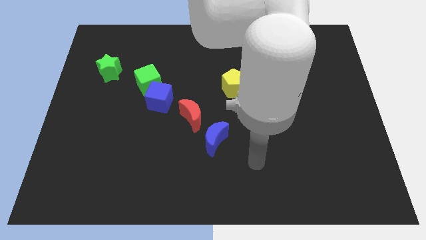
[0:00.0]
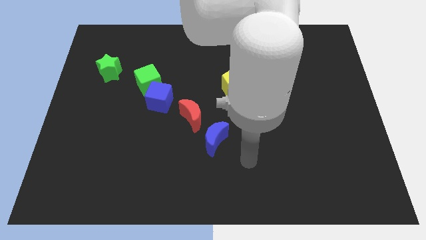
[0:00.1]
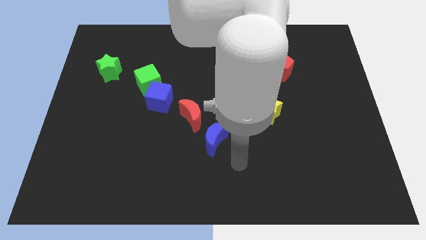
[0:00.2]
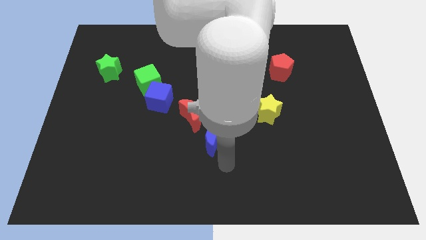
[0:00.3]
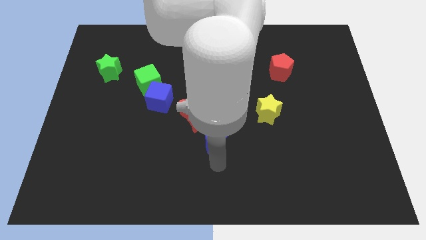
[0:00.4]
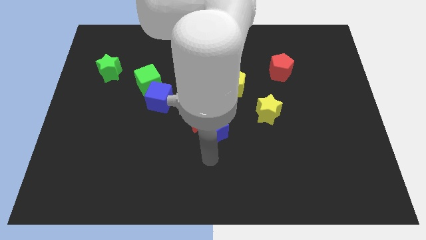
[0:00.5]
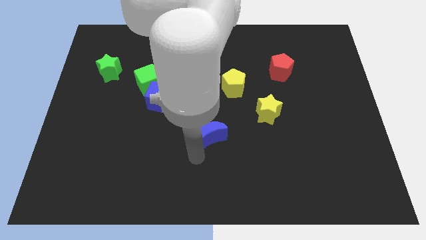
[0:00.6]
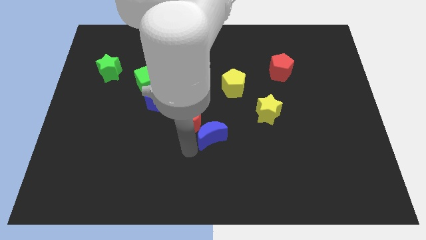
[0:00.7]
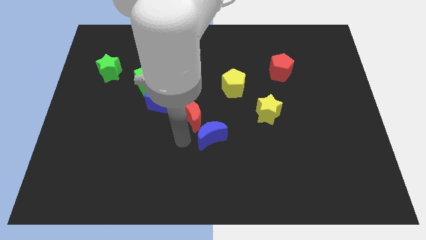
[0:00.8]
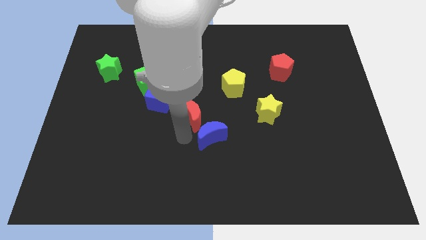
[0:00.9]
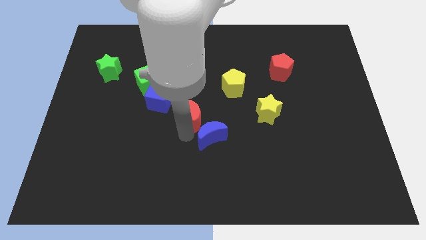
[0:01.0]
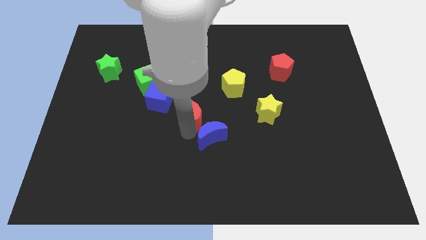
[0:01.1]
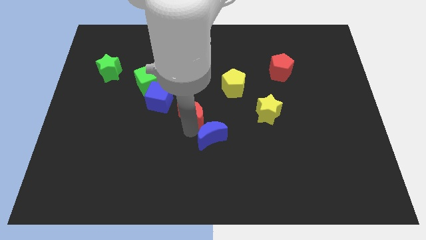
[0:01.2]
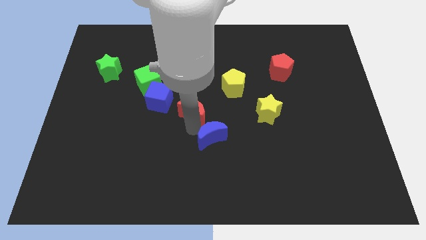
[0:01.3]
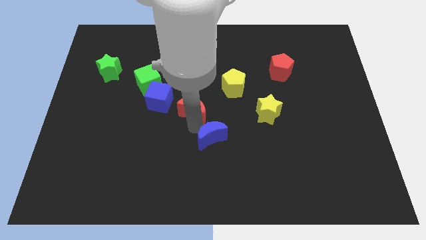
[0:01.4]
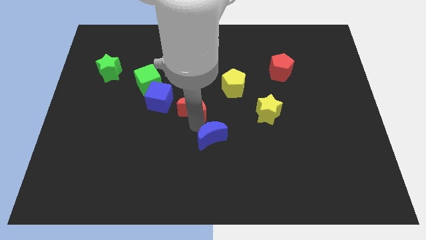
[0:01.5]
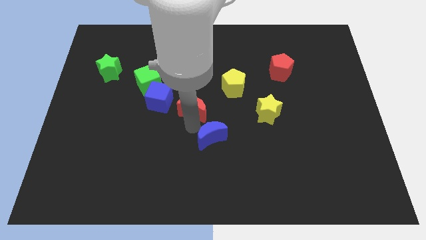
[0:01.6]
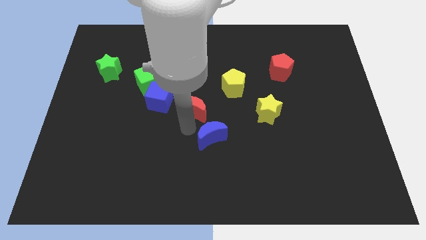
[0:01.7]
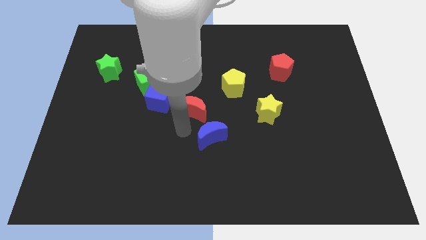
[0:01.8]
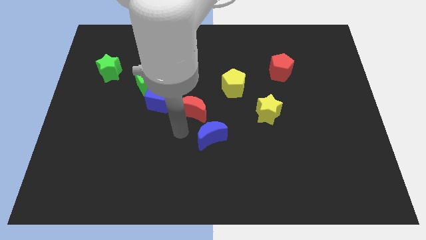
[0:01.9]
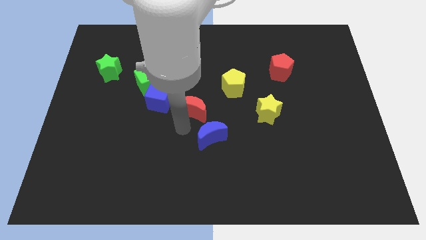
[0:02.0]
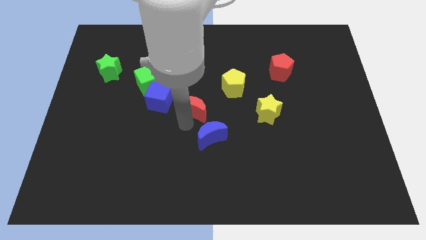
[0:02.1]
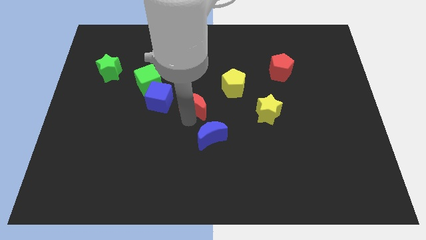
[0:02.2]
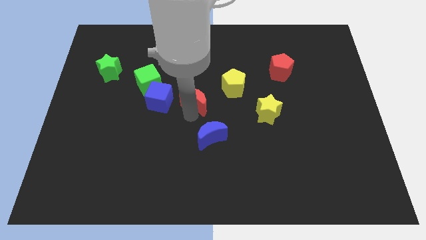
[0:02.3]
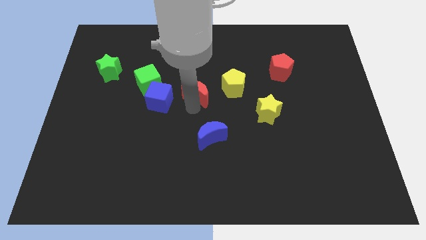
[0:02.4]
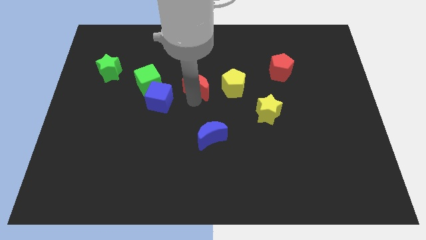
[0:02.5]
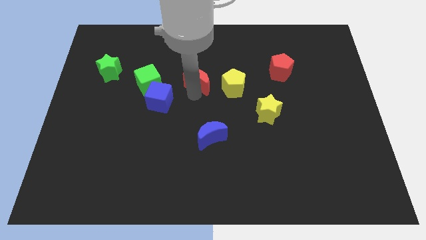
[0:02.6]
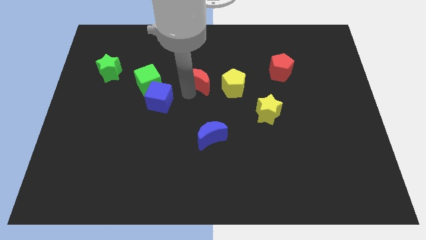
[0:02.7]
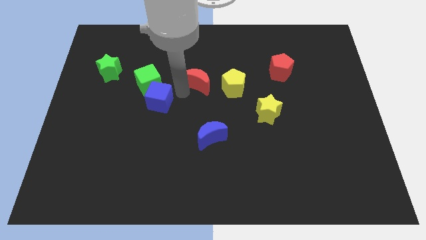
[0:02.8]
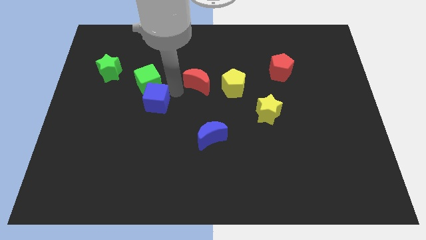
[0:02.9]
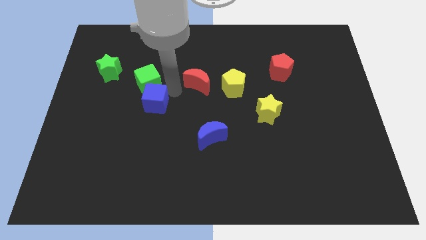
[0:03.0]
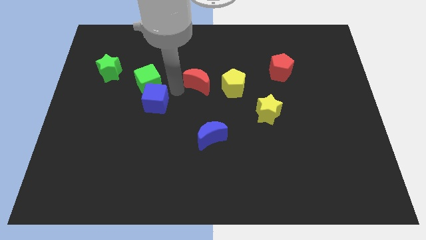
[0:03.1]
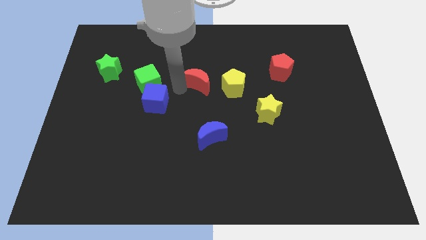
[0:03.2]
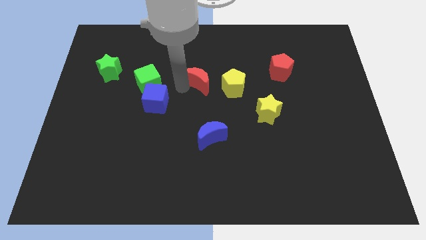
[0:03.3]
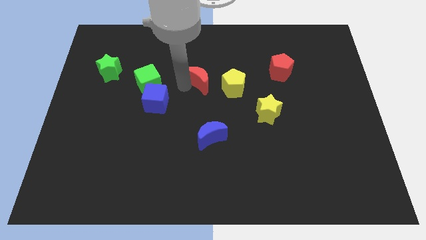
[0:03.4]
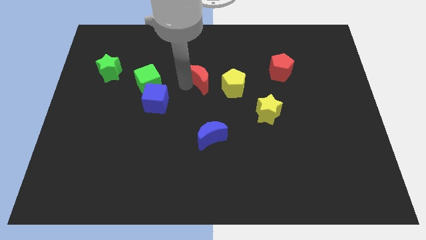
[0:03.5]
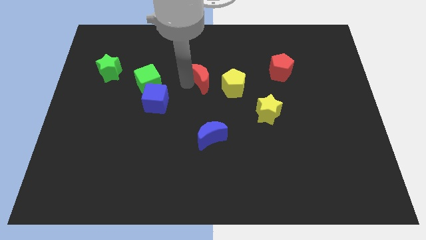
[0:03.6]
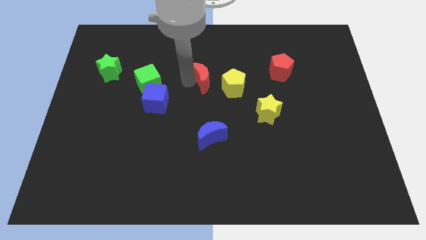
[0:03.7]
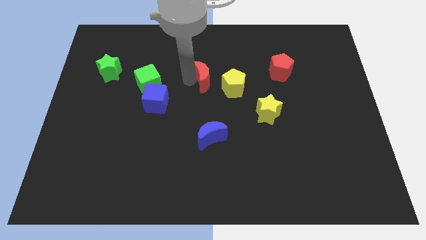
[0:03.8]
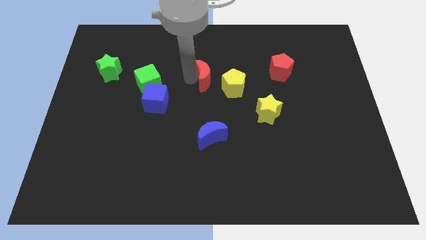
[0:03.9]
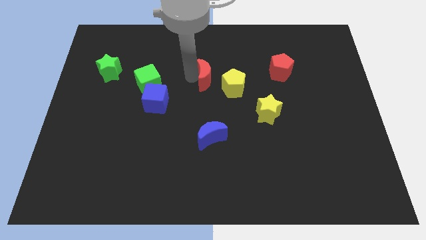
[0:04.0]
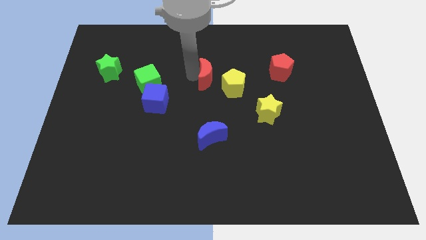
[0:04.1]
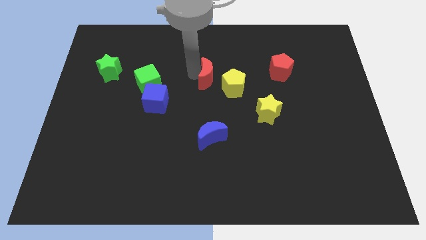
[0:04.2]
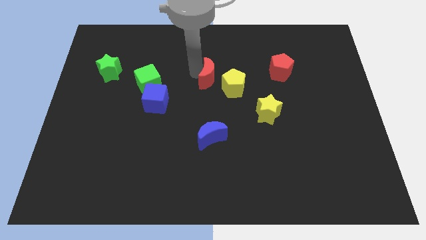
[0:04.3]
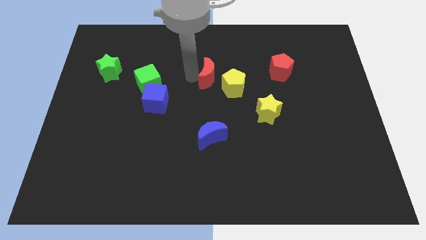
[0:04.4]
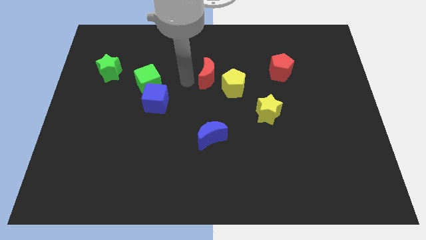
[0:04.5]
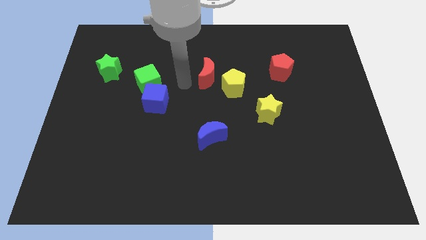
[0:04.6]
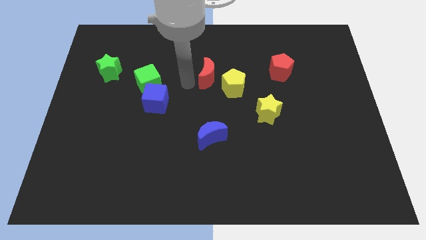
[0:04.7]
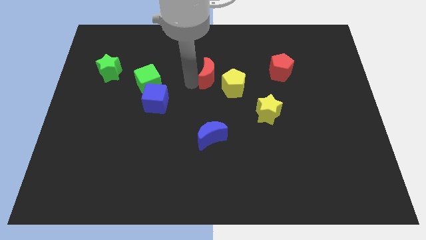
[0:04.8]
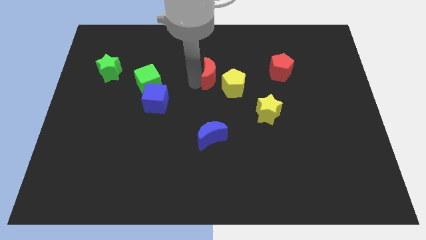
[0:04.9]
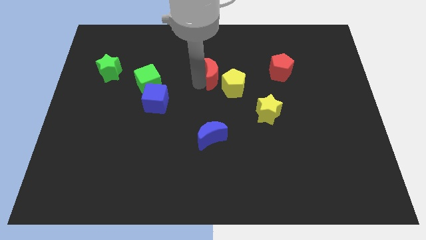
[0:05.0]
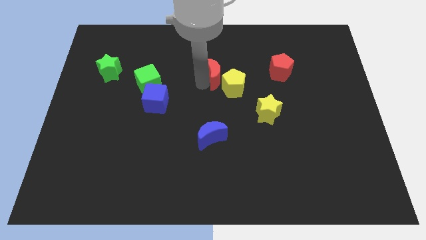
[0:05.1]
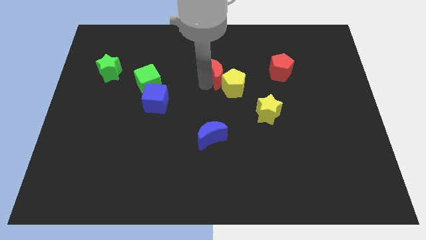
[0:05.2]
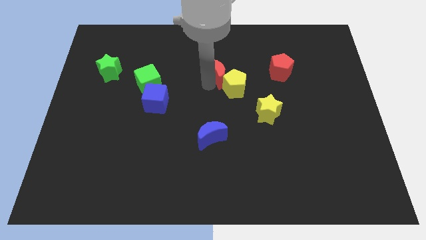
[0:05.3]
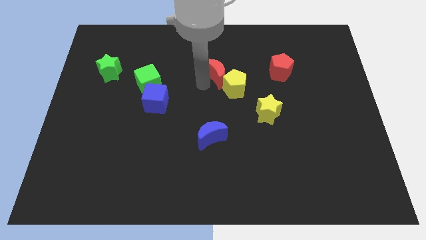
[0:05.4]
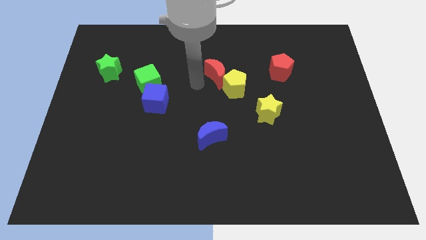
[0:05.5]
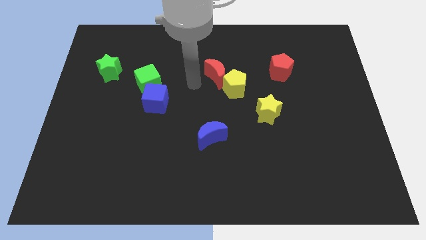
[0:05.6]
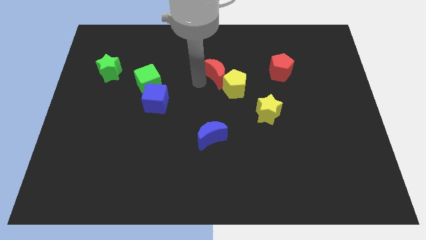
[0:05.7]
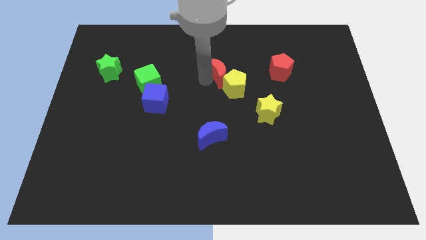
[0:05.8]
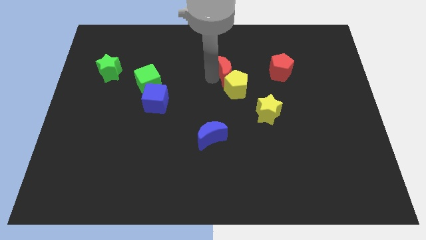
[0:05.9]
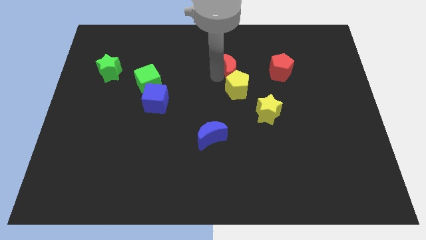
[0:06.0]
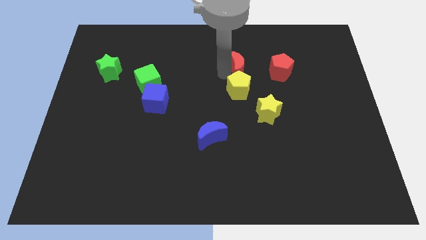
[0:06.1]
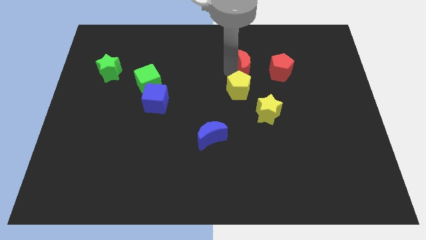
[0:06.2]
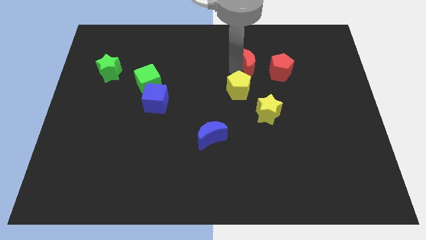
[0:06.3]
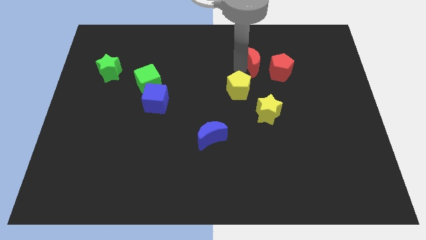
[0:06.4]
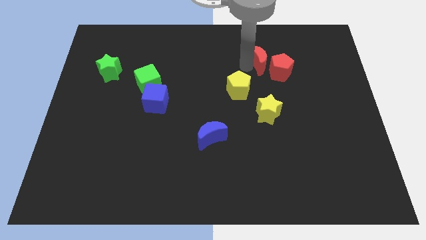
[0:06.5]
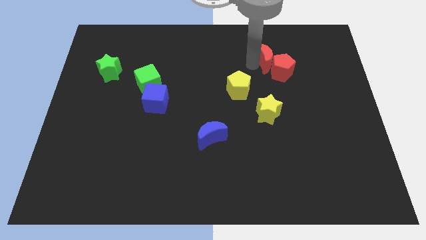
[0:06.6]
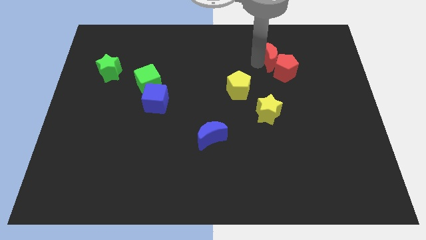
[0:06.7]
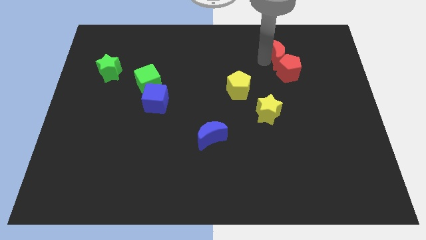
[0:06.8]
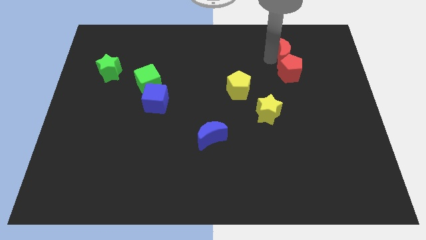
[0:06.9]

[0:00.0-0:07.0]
move the red moon to the top right of the red pentagon

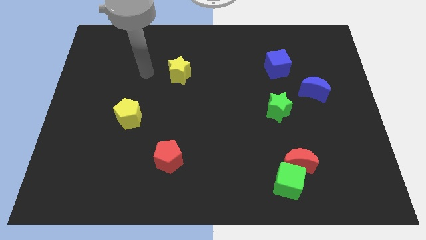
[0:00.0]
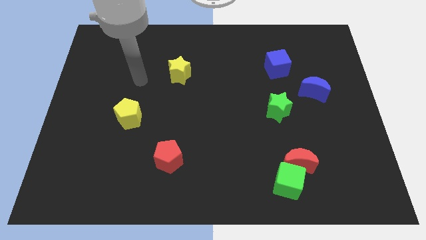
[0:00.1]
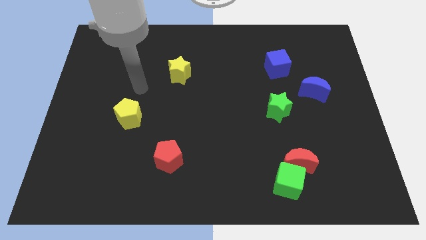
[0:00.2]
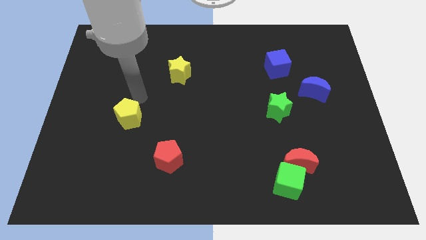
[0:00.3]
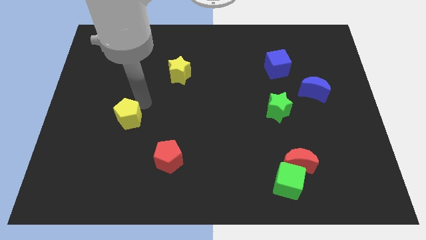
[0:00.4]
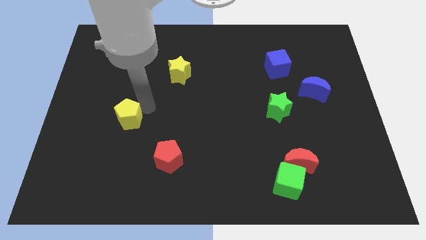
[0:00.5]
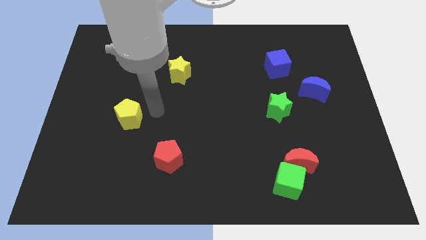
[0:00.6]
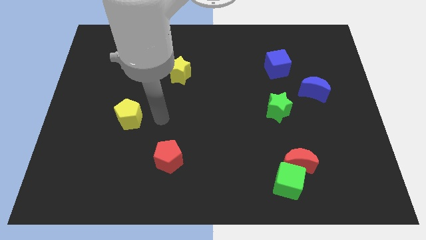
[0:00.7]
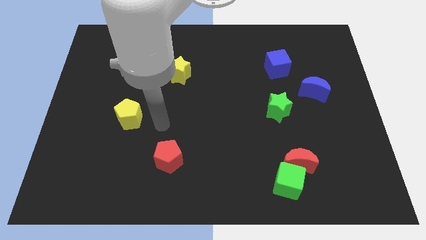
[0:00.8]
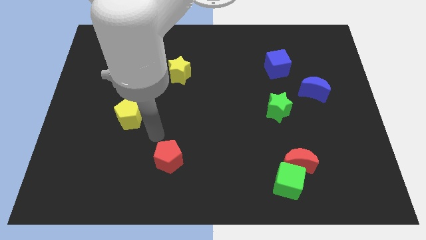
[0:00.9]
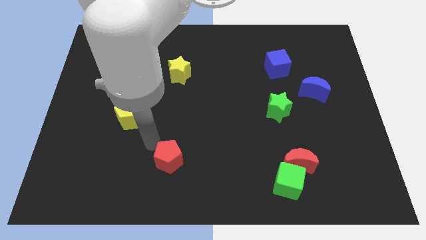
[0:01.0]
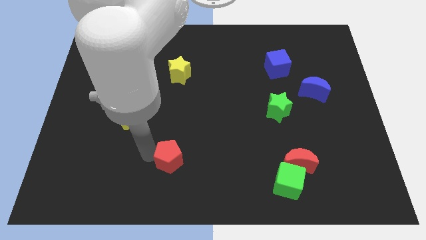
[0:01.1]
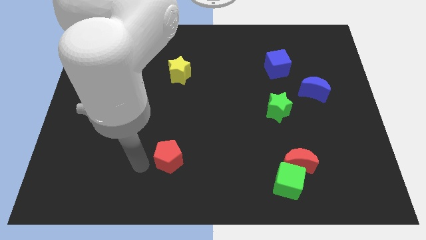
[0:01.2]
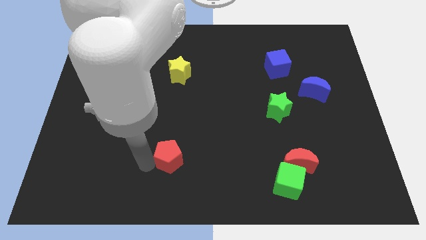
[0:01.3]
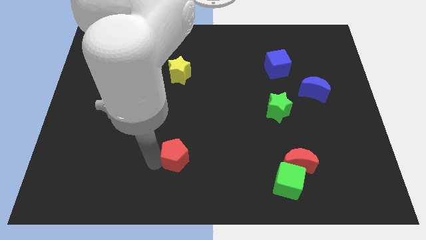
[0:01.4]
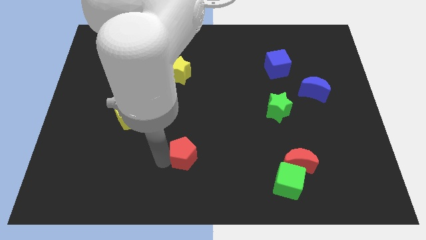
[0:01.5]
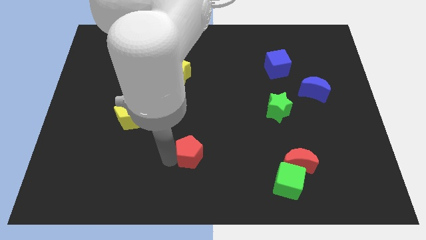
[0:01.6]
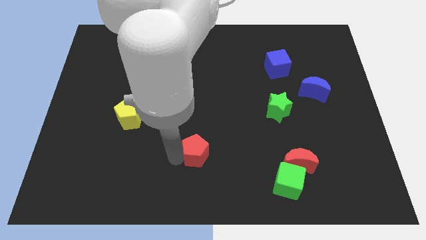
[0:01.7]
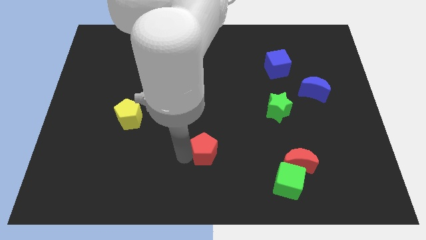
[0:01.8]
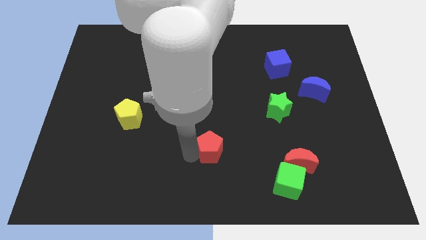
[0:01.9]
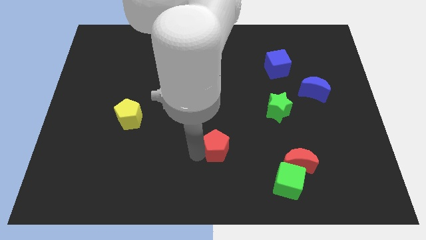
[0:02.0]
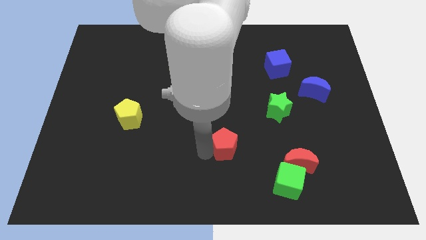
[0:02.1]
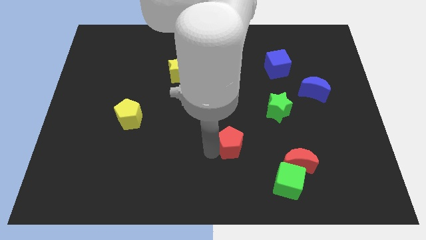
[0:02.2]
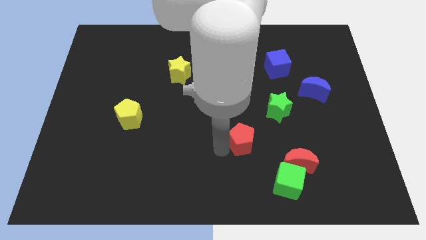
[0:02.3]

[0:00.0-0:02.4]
push the red pentagon to the bottom left of the green star
